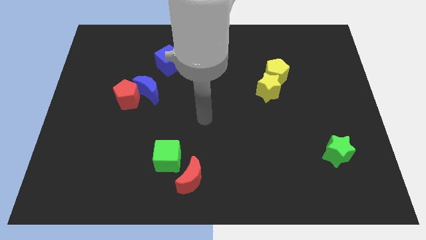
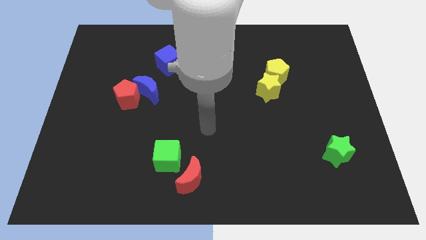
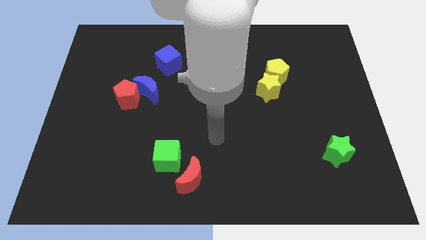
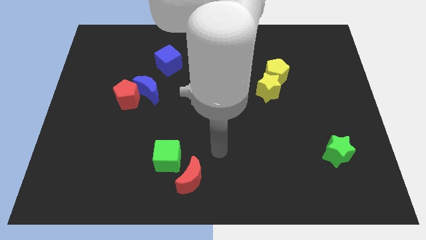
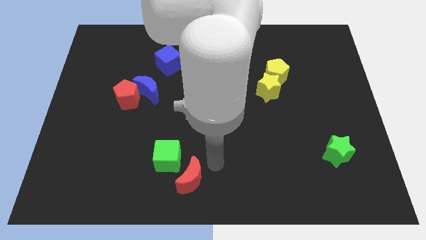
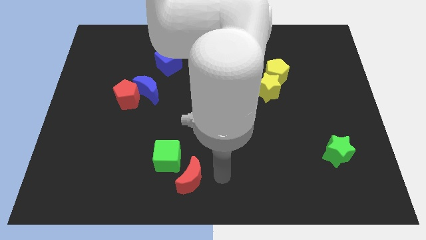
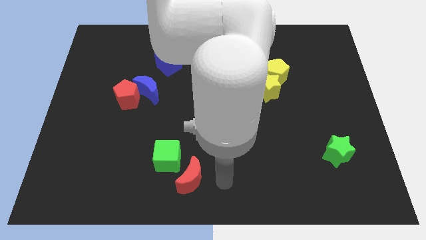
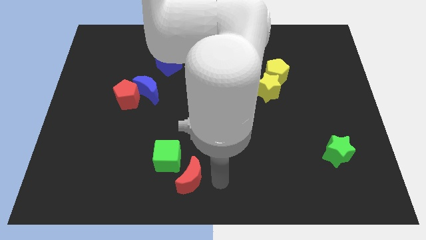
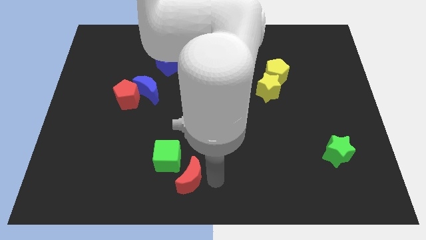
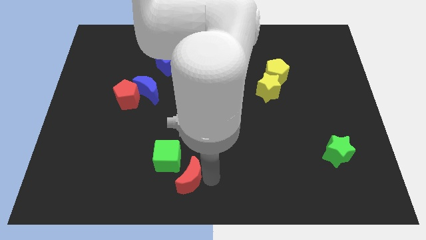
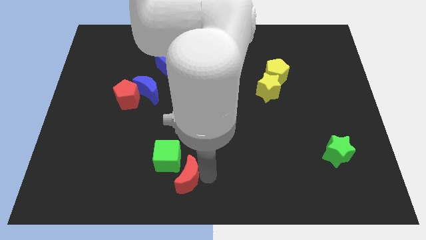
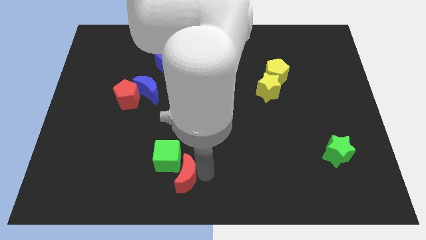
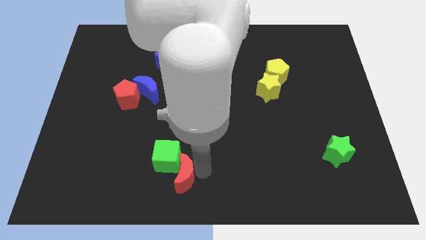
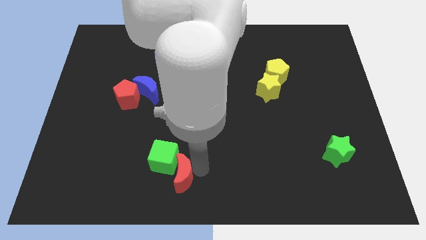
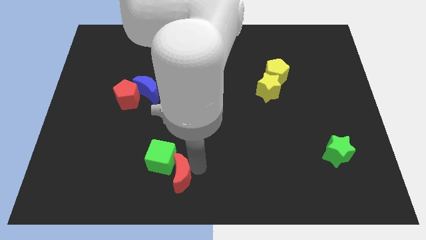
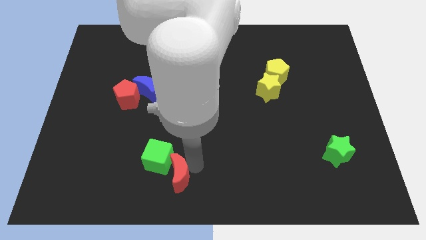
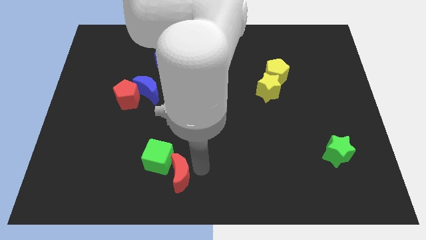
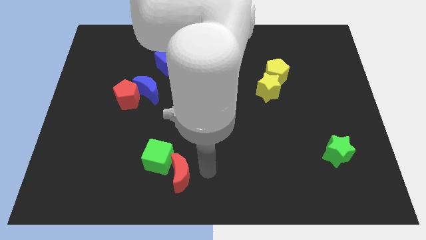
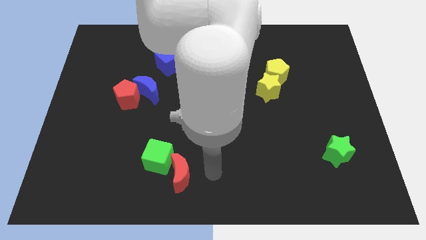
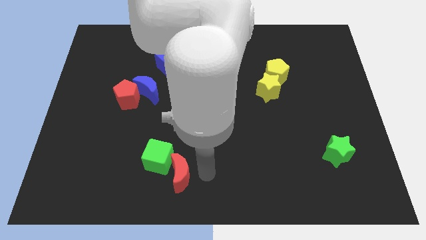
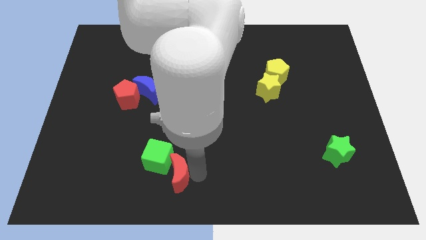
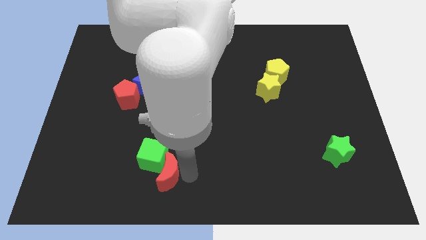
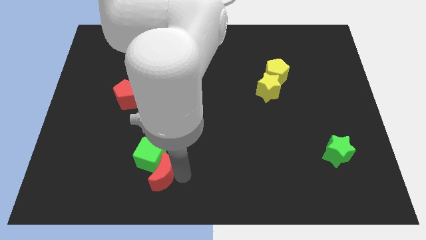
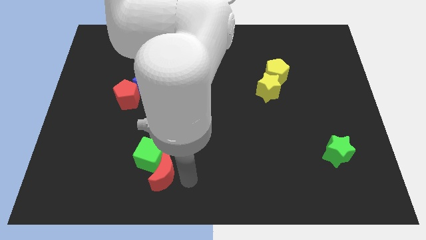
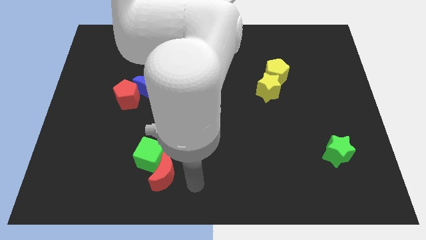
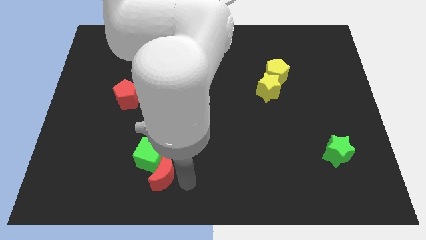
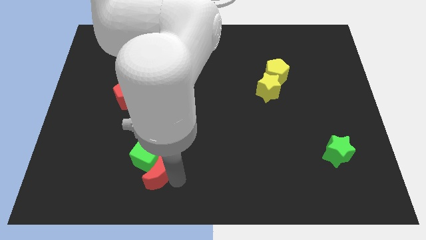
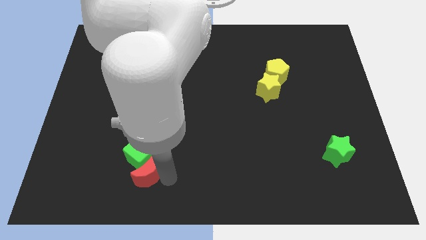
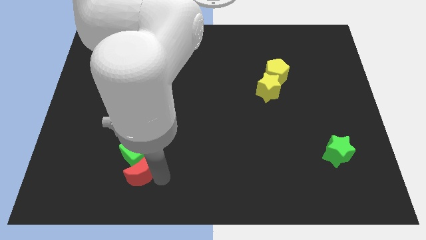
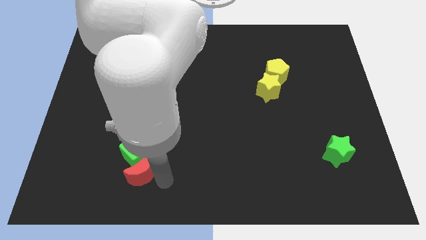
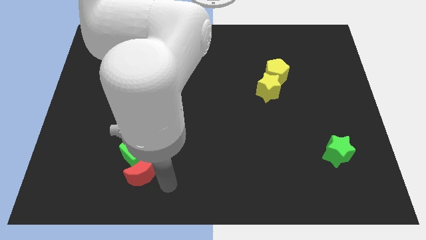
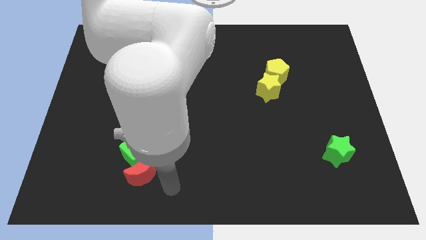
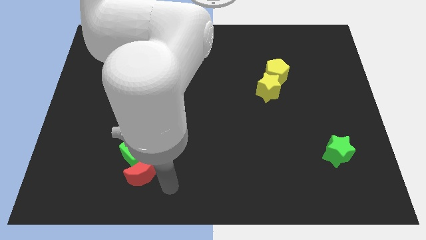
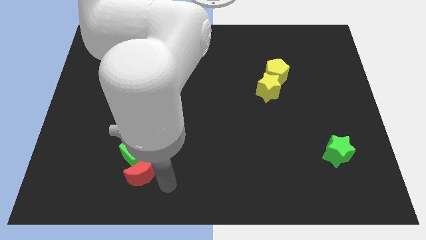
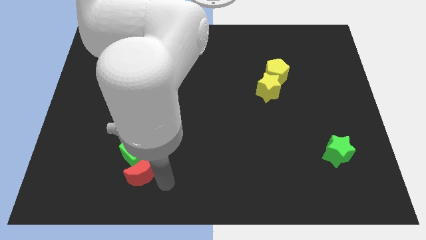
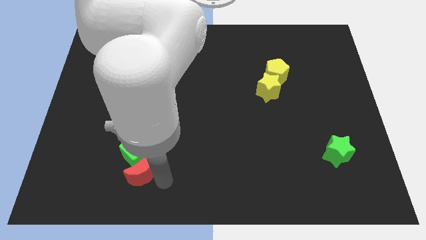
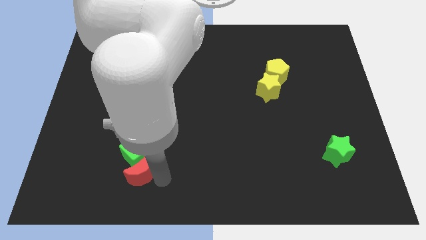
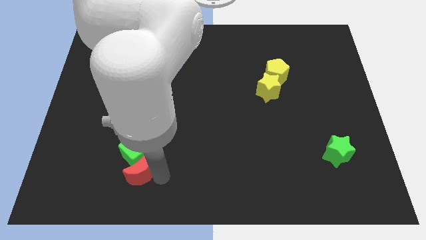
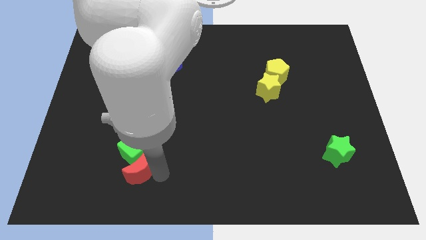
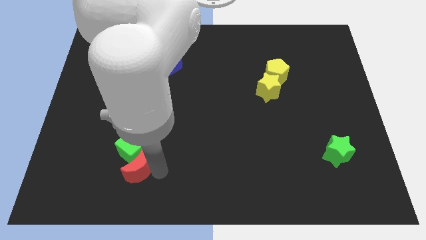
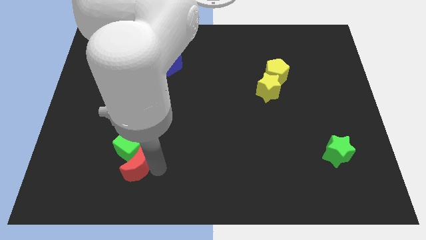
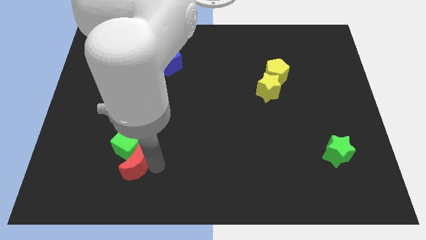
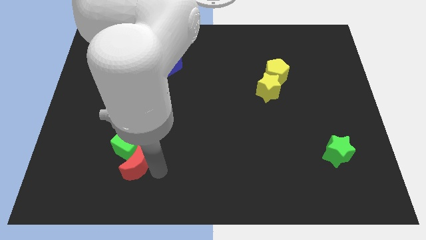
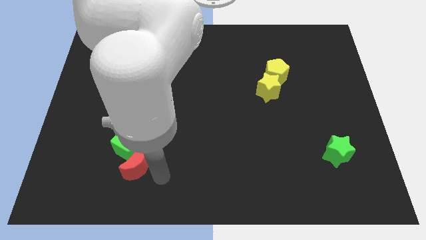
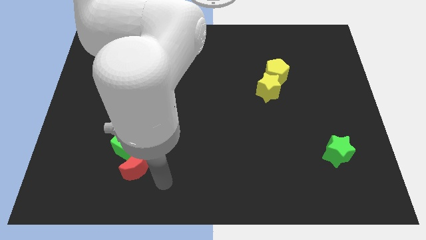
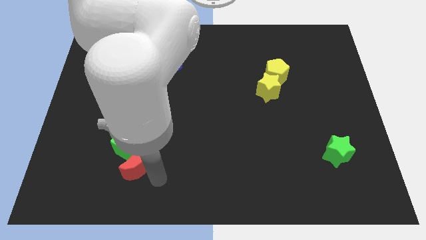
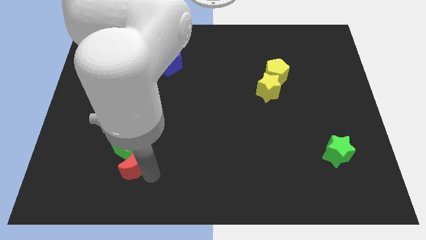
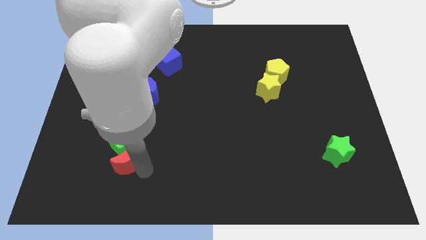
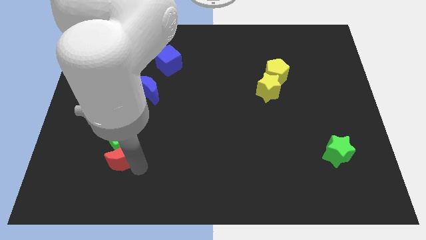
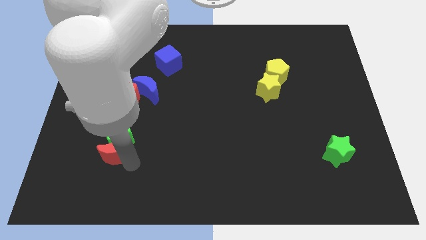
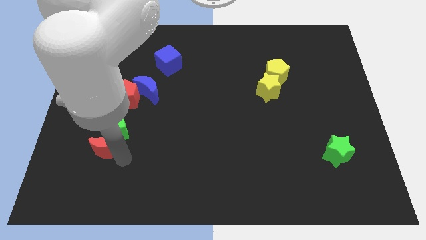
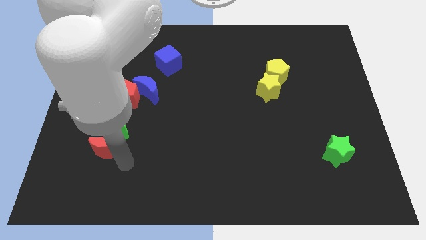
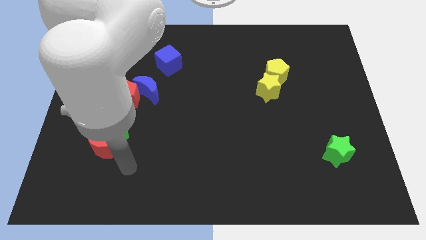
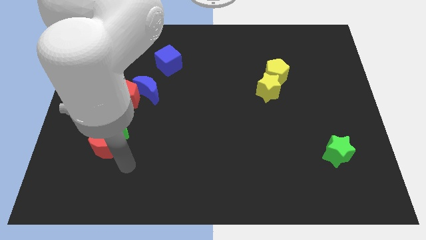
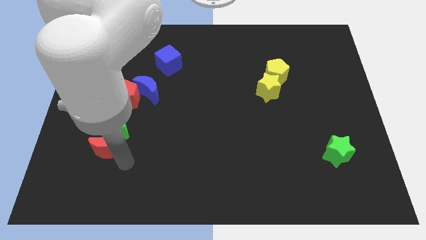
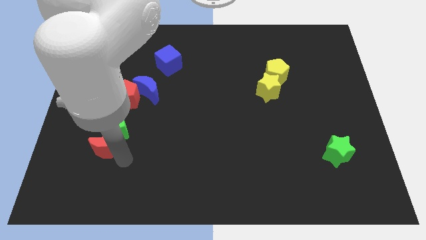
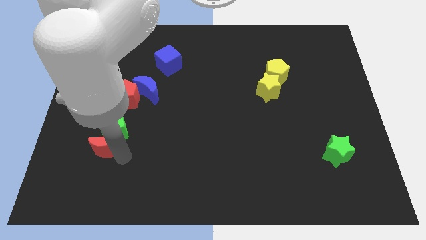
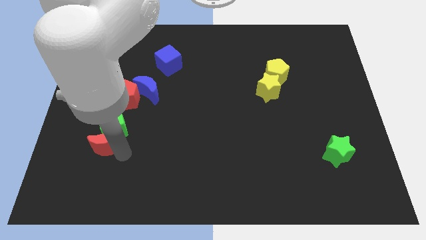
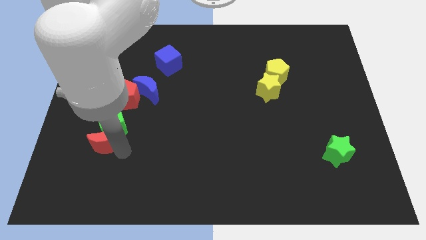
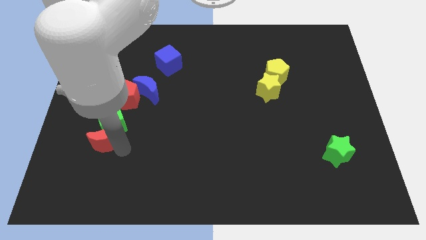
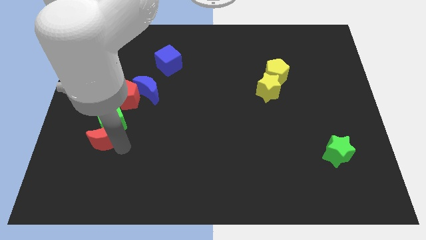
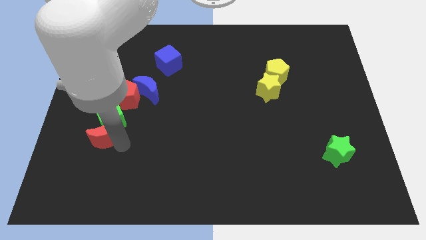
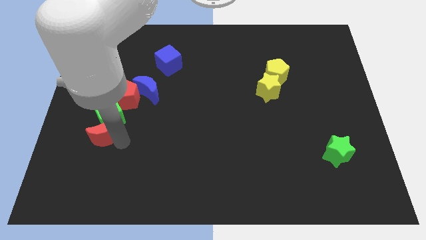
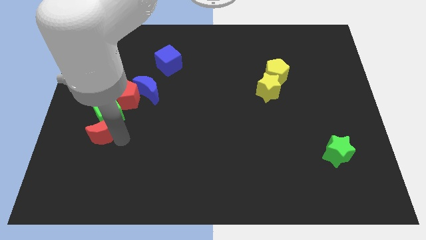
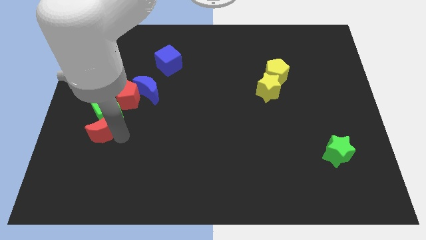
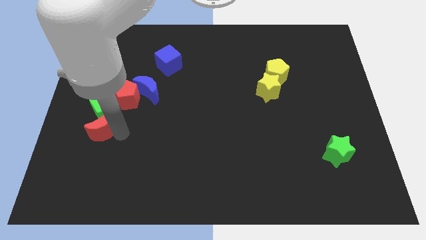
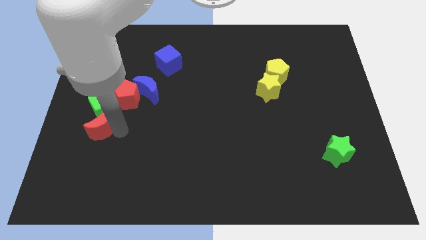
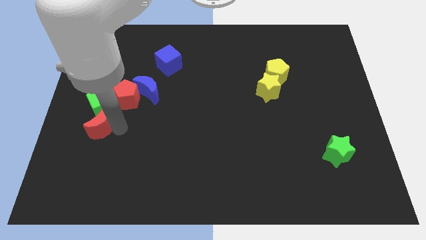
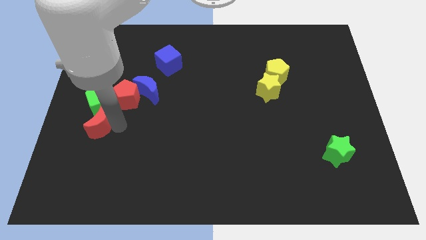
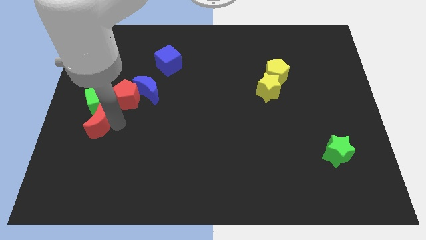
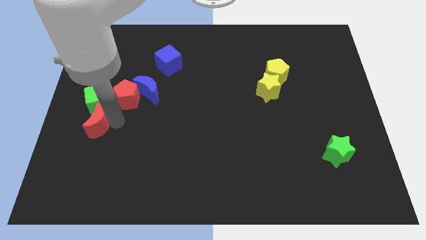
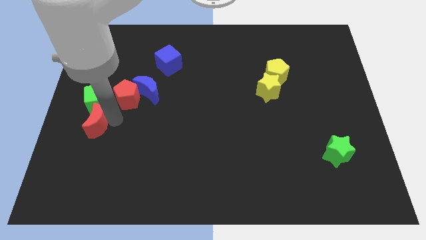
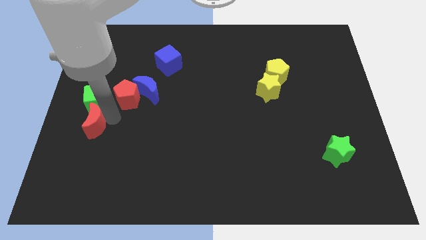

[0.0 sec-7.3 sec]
slide the red moon to the center left

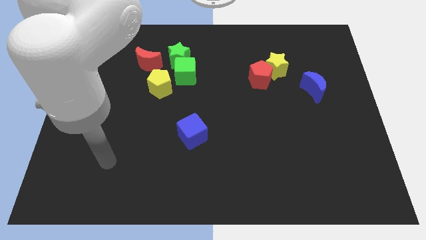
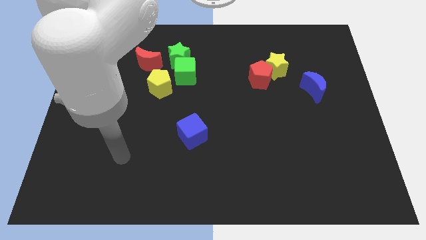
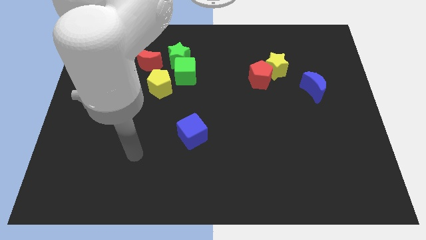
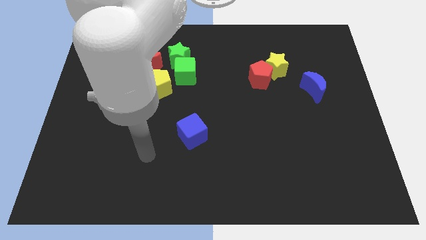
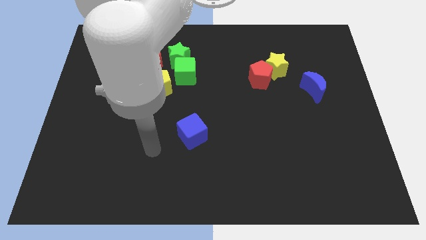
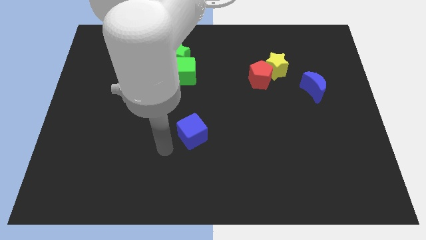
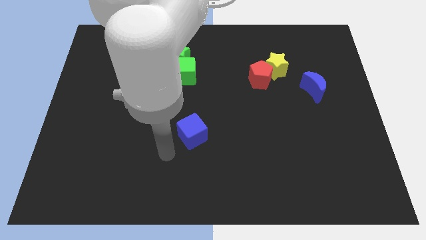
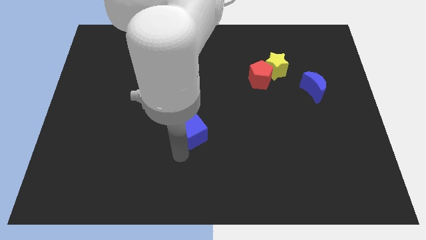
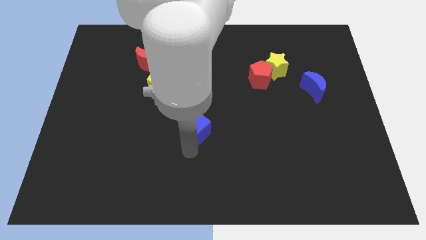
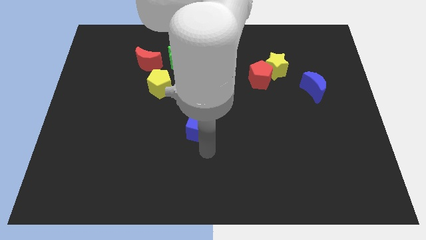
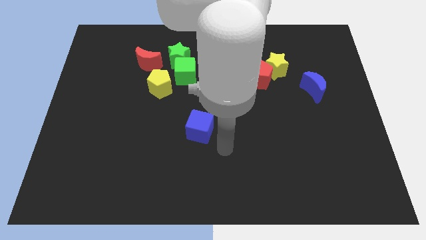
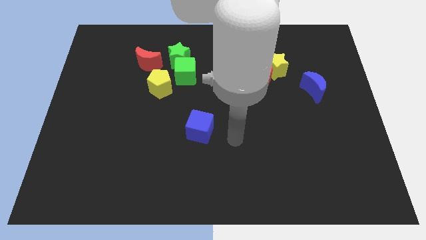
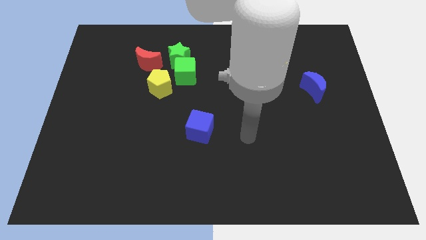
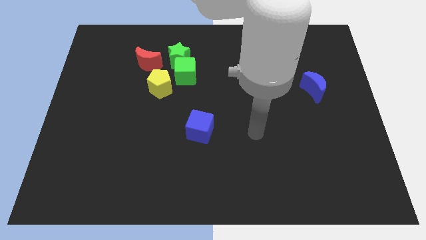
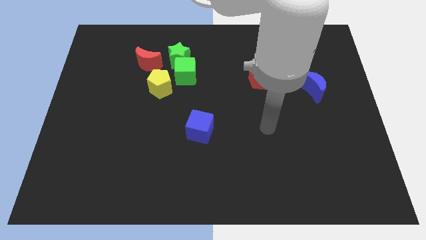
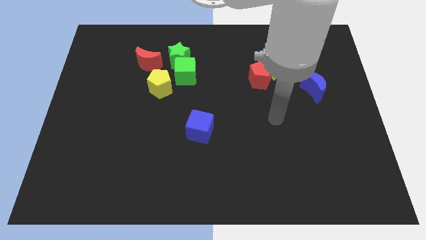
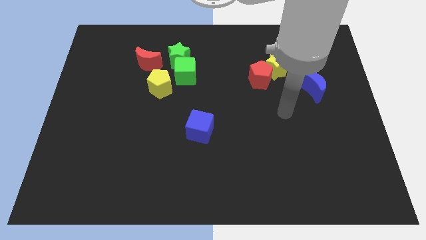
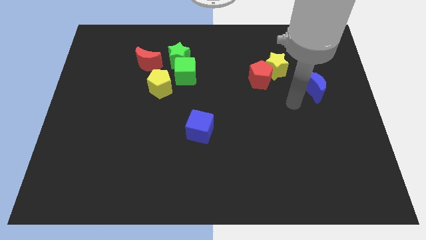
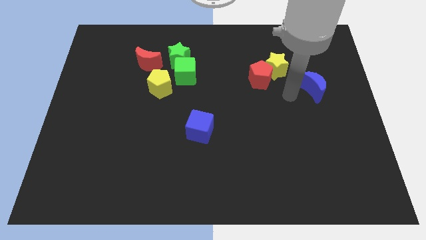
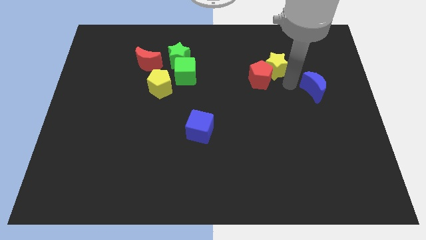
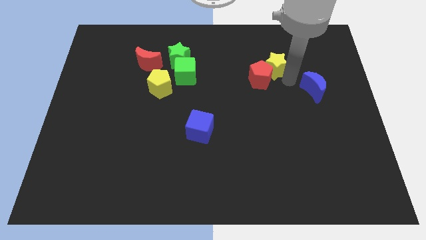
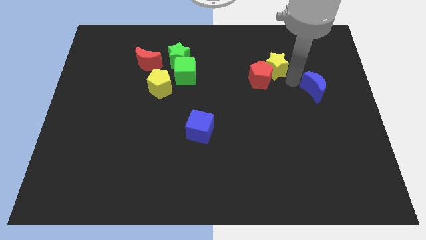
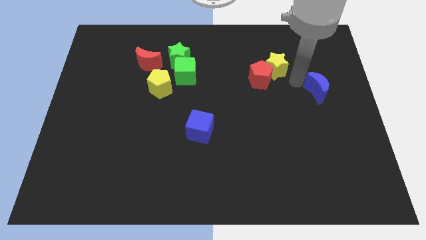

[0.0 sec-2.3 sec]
push the blue moon to the right side of the board
